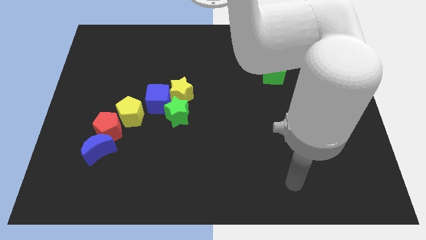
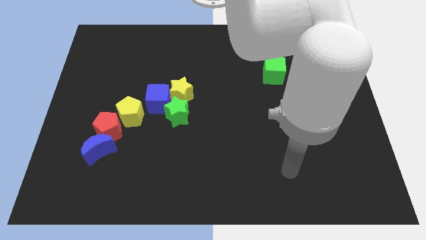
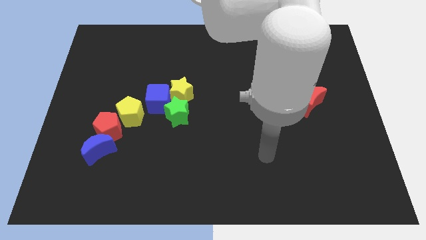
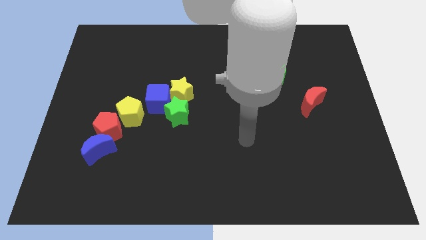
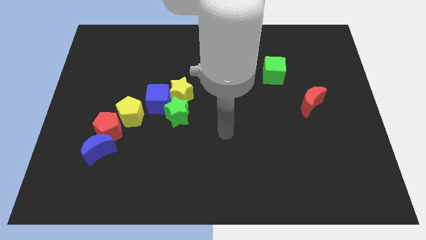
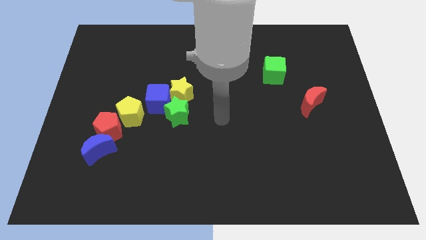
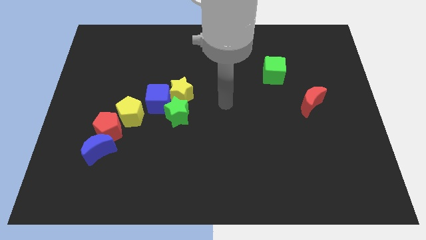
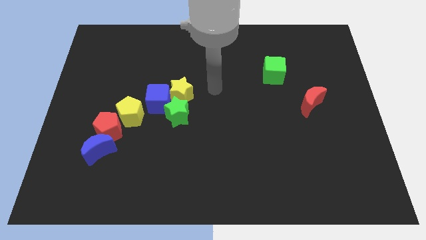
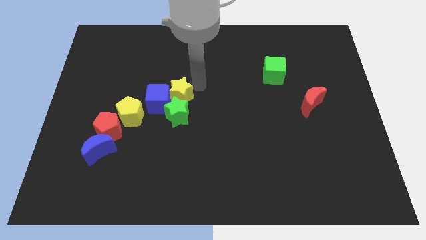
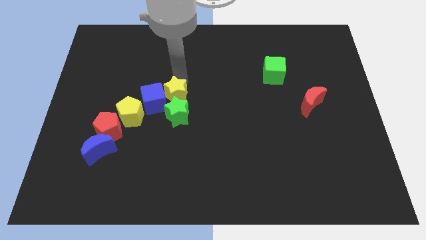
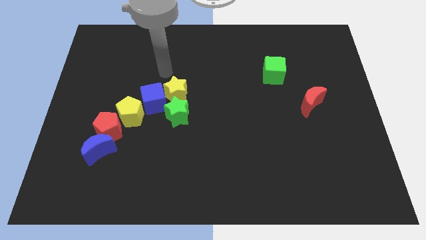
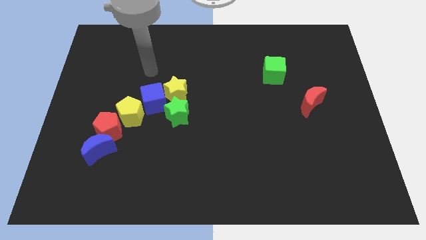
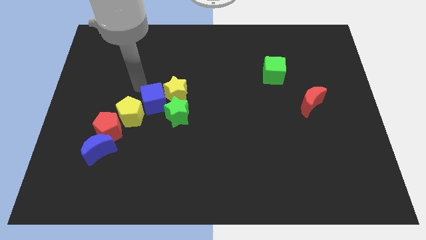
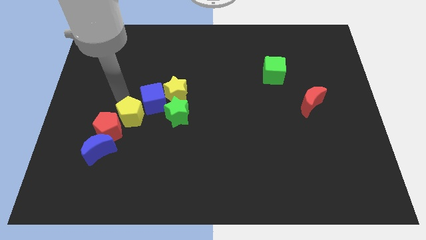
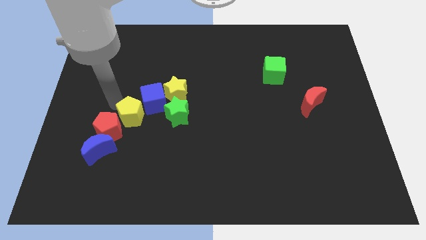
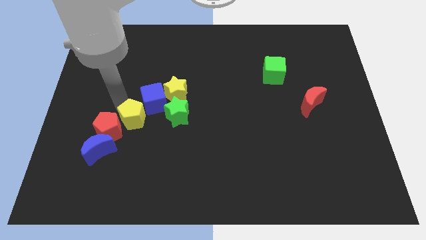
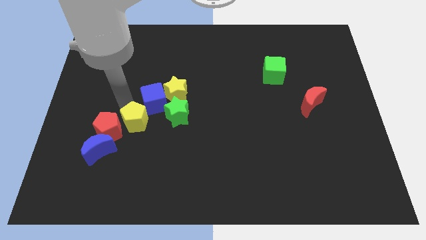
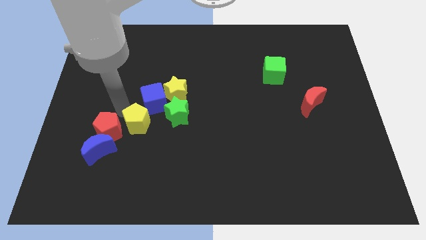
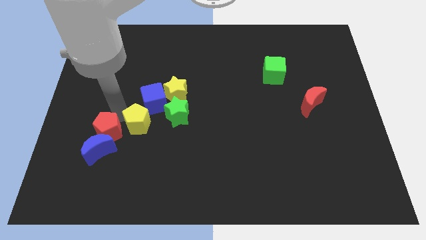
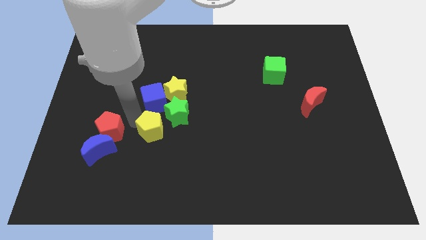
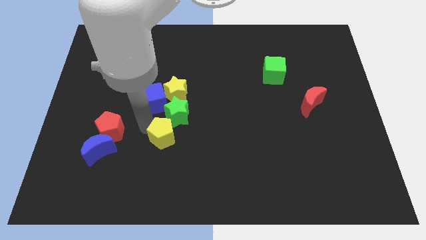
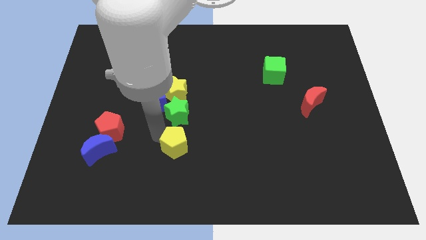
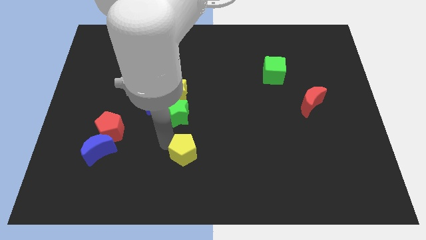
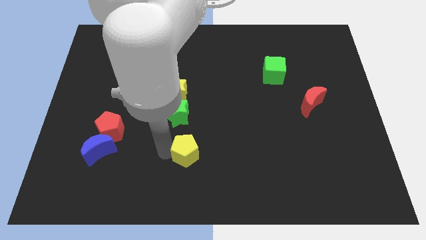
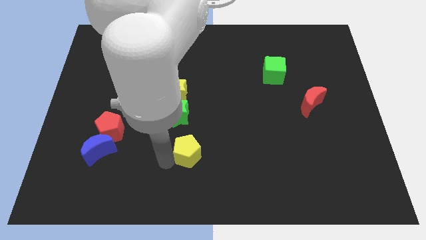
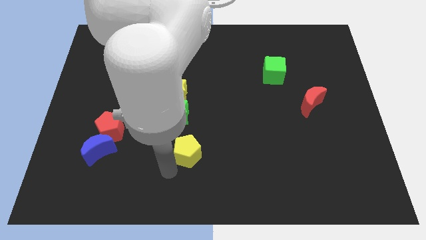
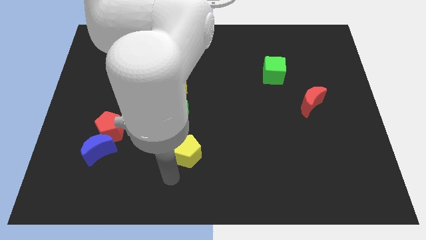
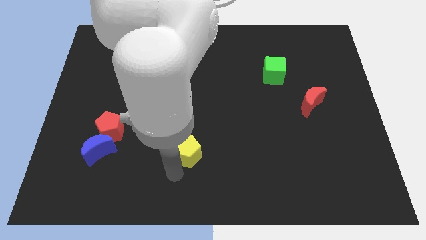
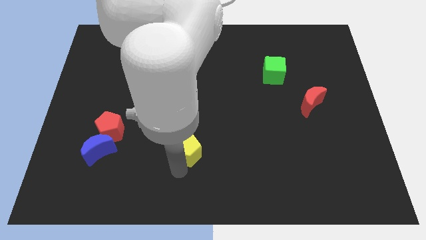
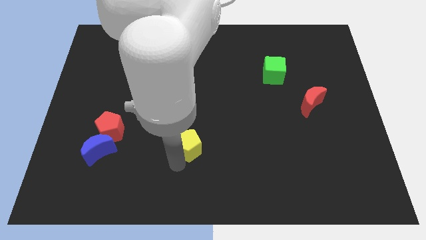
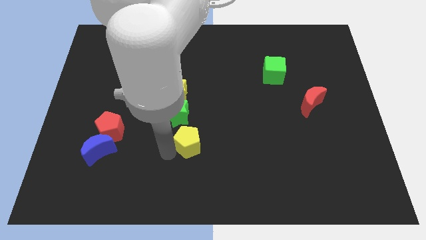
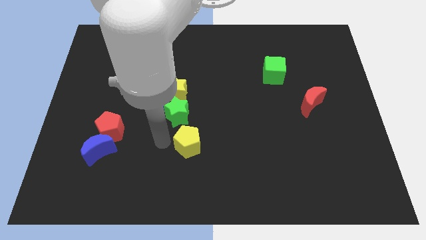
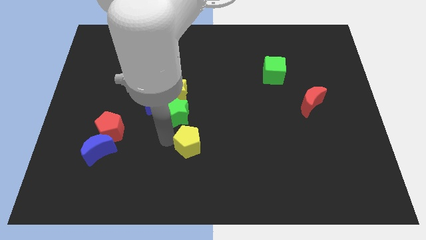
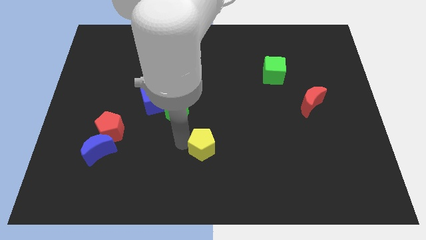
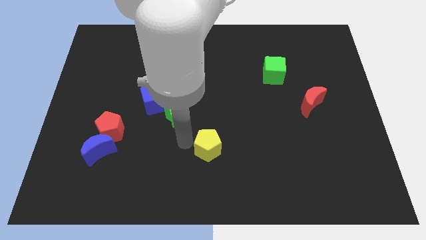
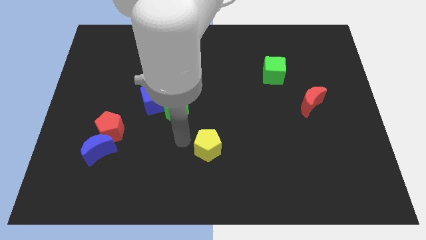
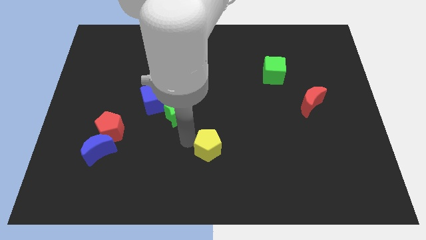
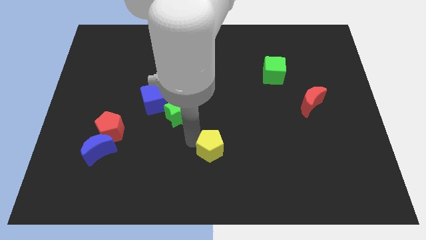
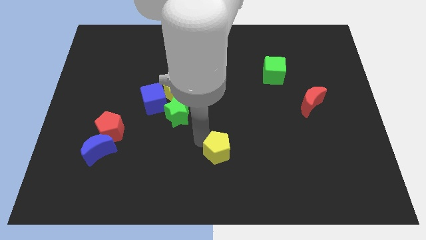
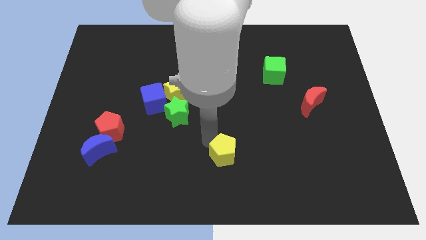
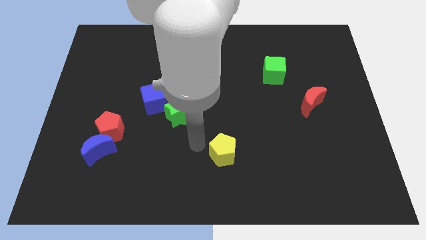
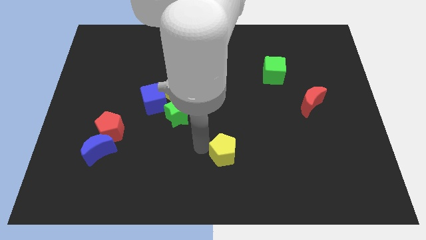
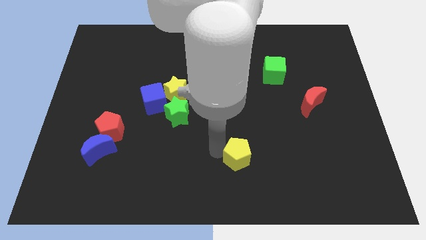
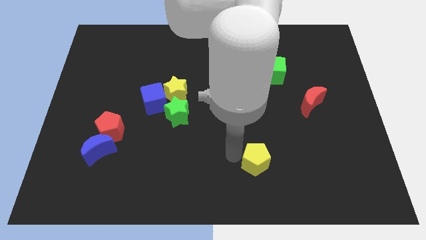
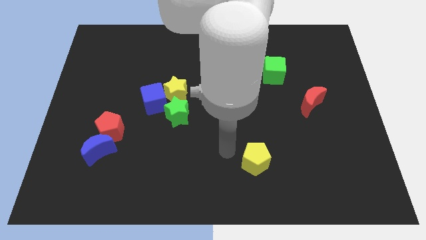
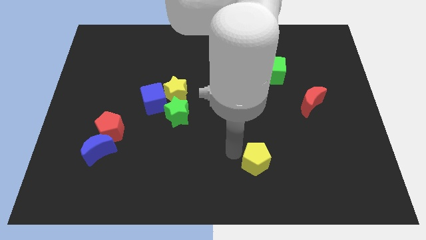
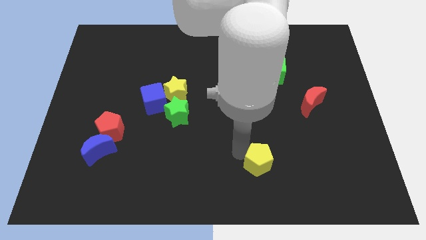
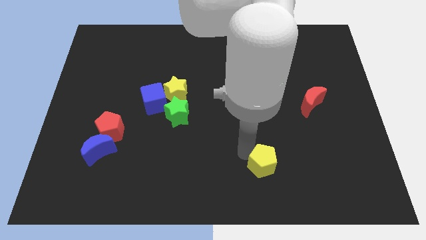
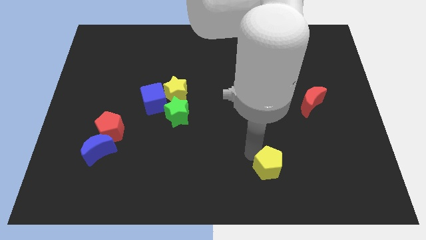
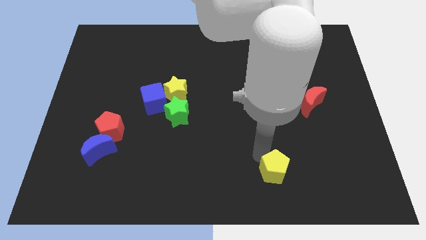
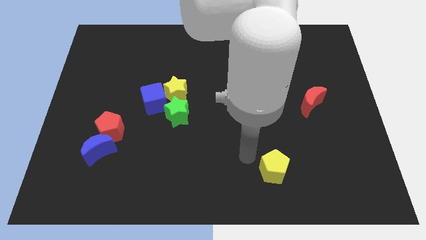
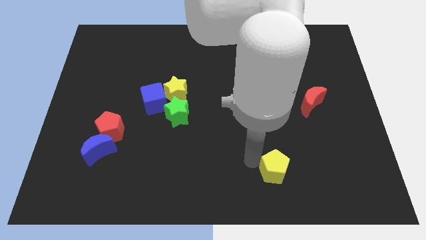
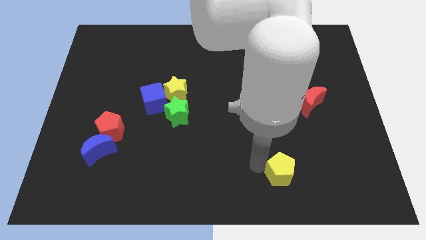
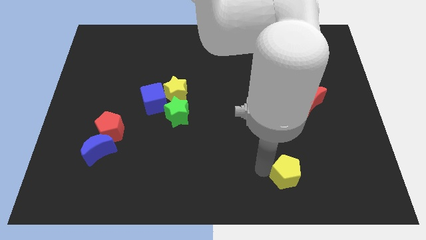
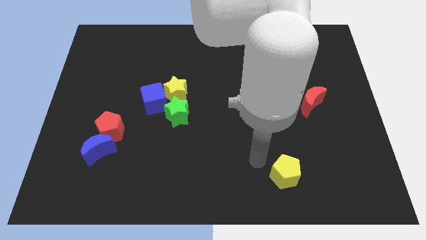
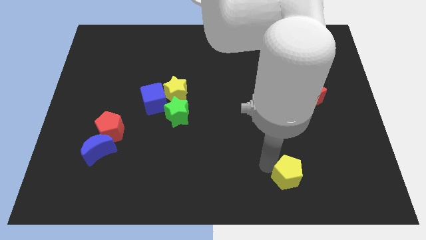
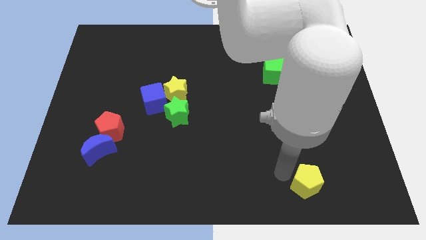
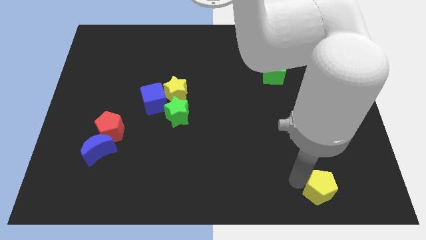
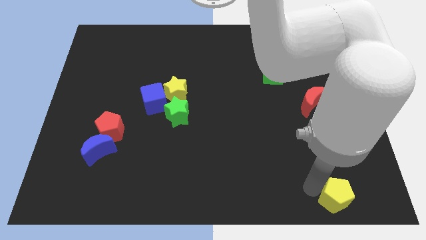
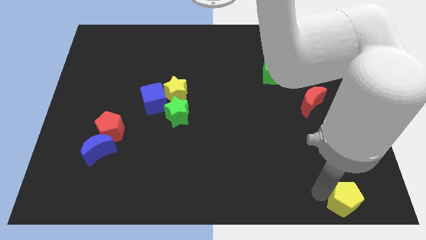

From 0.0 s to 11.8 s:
put the yellow pentagon to the lower right corner
